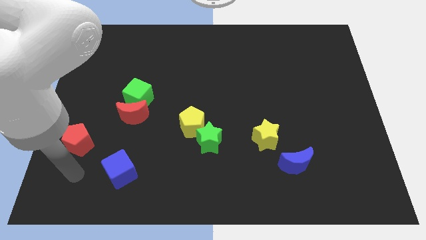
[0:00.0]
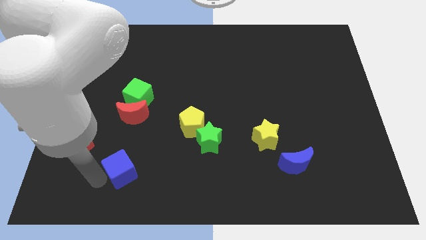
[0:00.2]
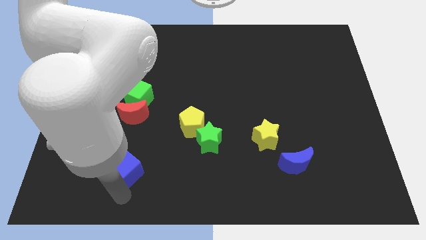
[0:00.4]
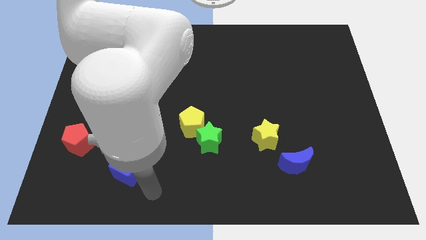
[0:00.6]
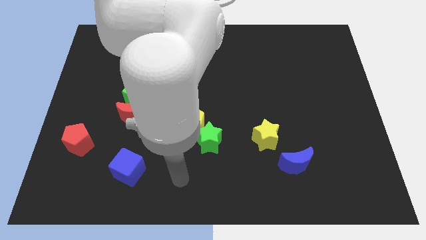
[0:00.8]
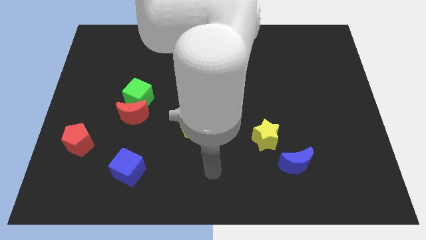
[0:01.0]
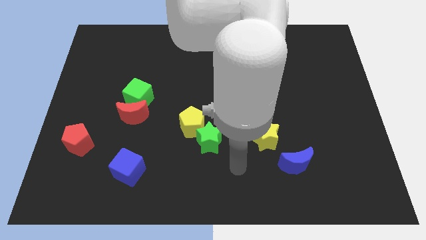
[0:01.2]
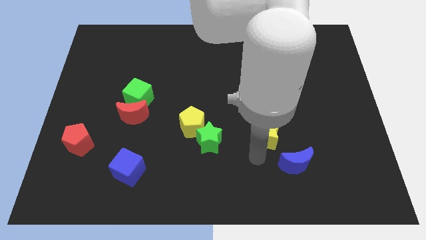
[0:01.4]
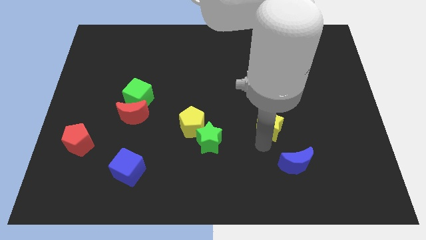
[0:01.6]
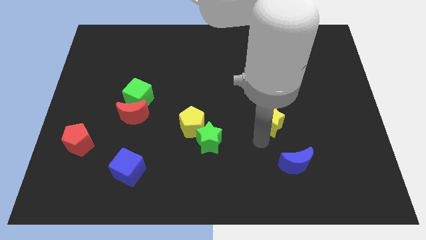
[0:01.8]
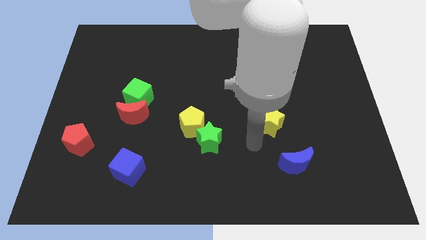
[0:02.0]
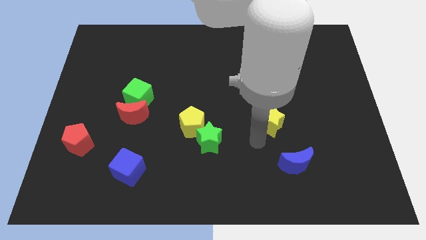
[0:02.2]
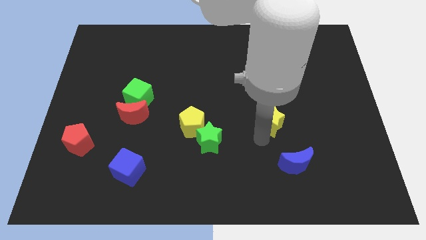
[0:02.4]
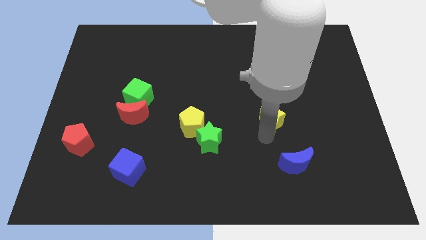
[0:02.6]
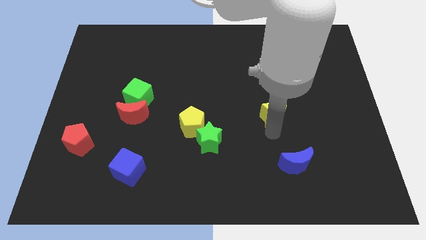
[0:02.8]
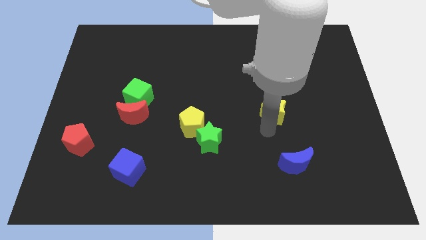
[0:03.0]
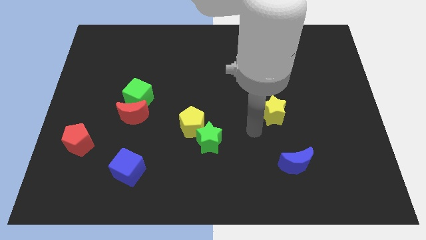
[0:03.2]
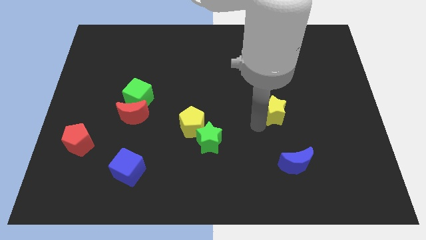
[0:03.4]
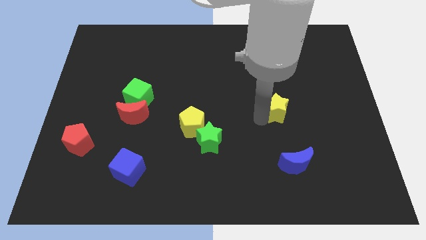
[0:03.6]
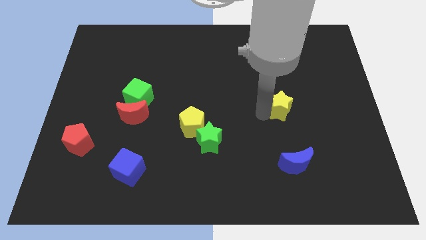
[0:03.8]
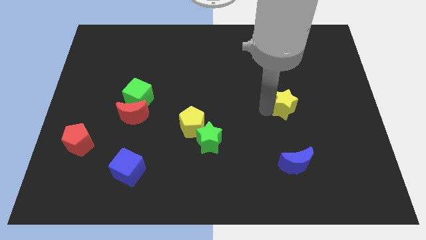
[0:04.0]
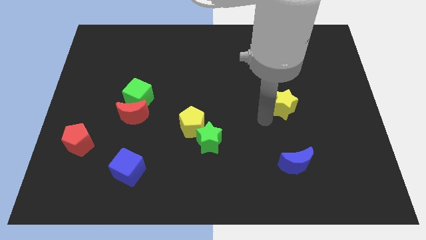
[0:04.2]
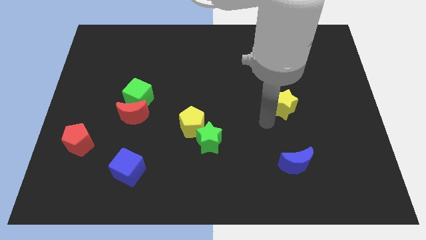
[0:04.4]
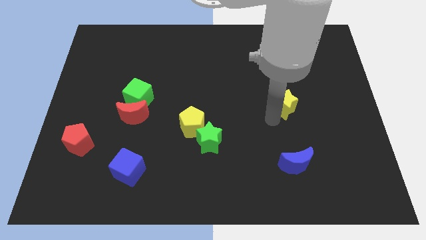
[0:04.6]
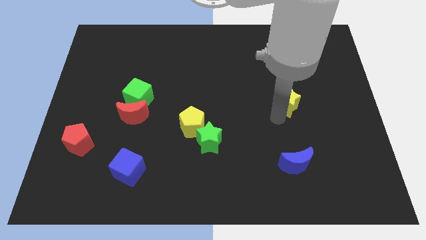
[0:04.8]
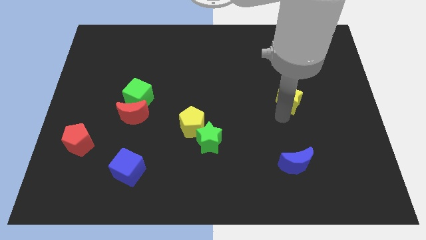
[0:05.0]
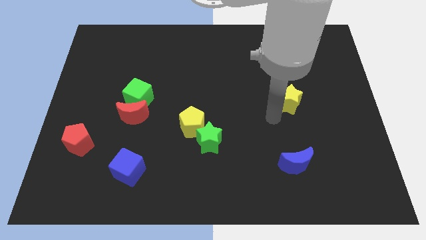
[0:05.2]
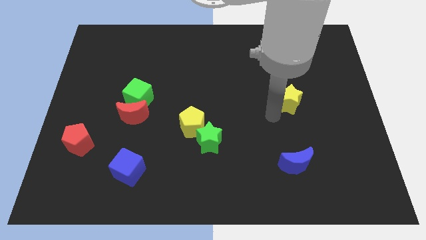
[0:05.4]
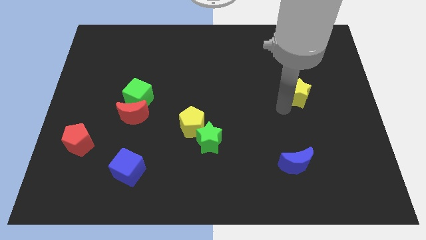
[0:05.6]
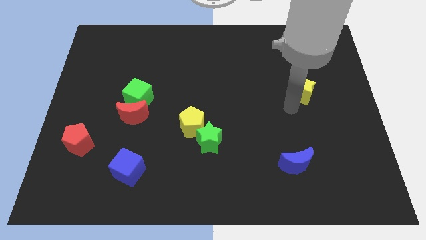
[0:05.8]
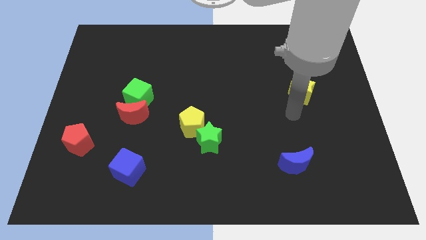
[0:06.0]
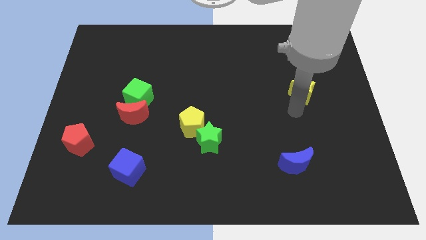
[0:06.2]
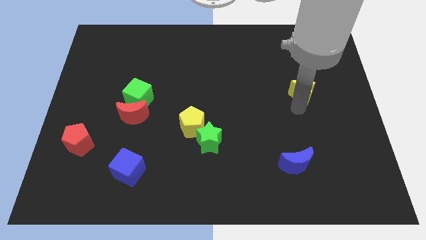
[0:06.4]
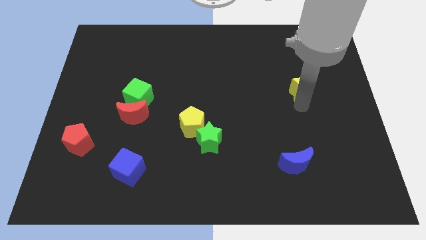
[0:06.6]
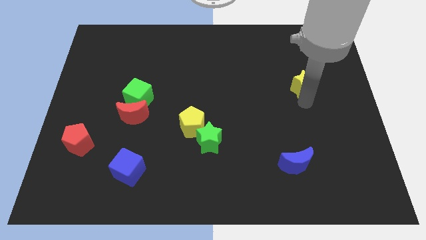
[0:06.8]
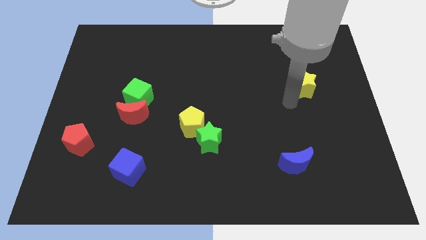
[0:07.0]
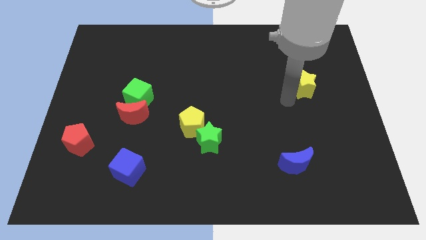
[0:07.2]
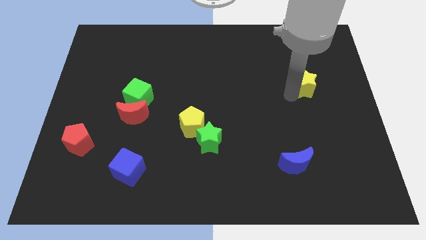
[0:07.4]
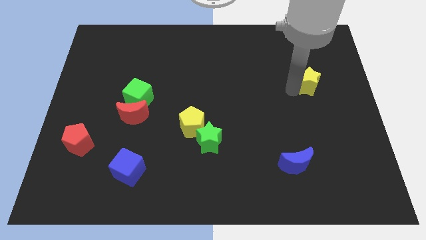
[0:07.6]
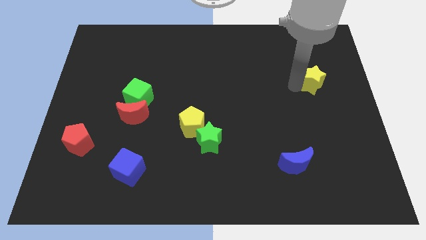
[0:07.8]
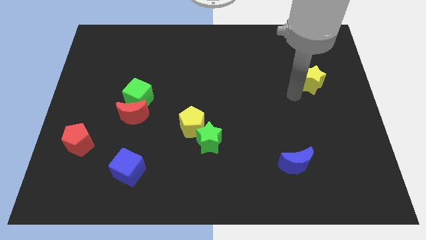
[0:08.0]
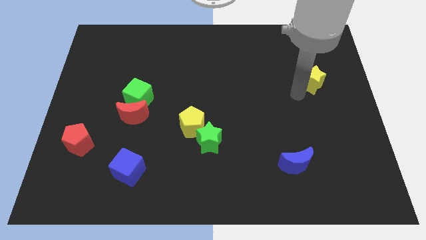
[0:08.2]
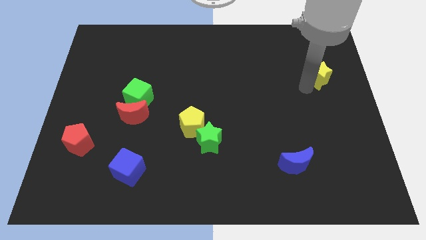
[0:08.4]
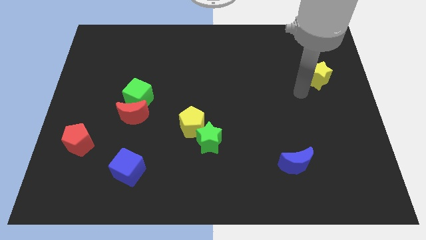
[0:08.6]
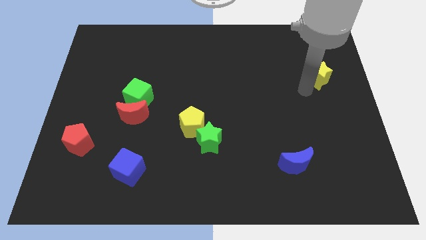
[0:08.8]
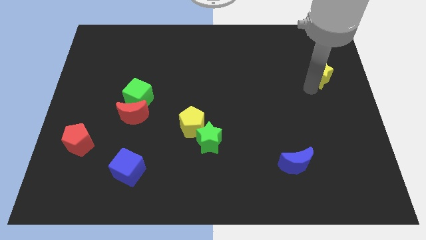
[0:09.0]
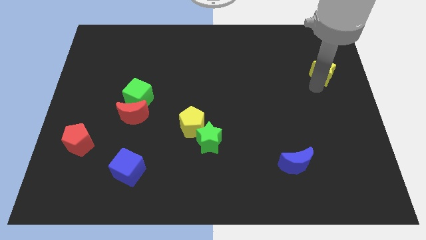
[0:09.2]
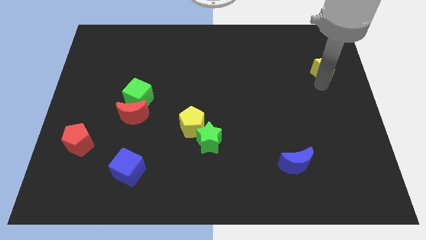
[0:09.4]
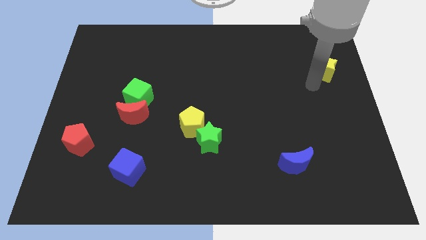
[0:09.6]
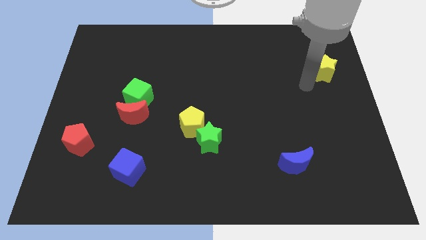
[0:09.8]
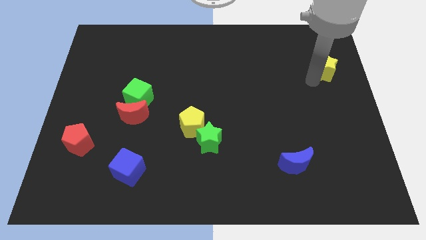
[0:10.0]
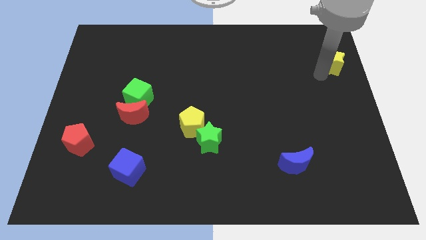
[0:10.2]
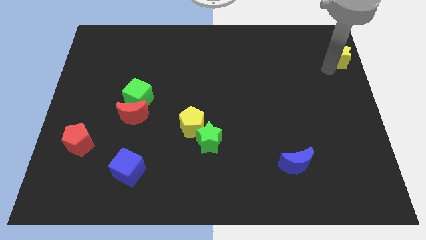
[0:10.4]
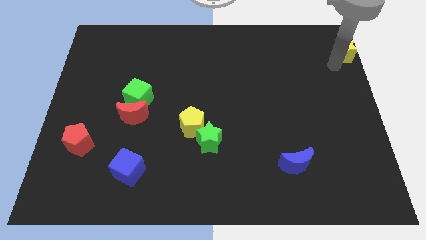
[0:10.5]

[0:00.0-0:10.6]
move the yellow star to the top right corner

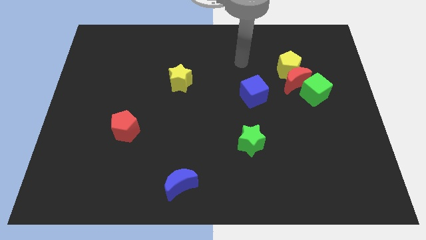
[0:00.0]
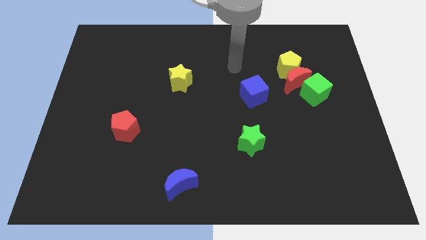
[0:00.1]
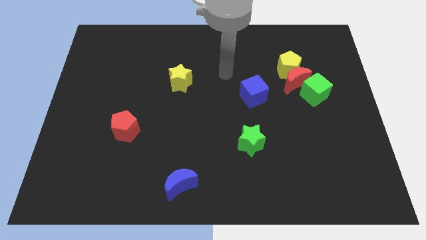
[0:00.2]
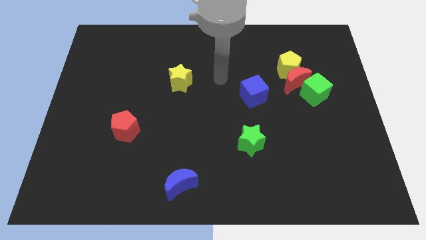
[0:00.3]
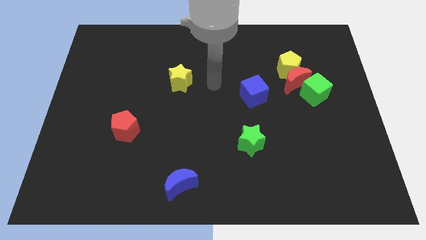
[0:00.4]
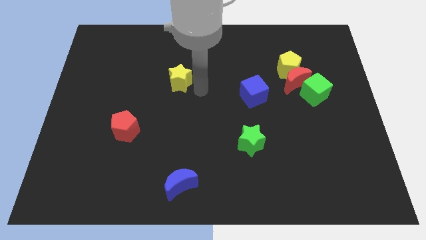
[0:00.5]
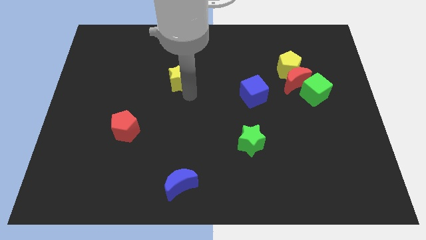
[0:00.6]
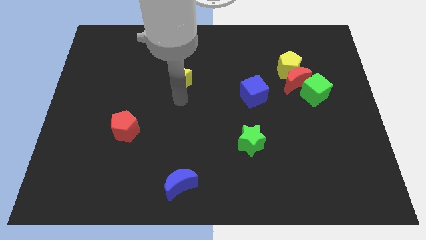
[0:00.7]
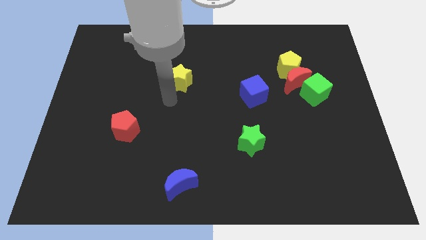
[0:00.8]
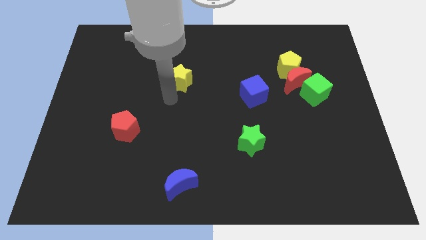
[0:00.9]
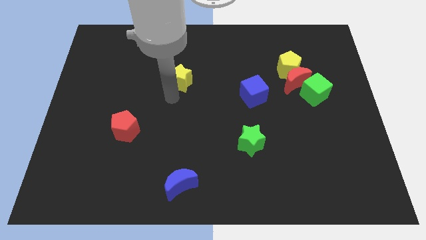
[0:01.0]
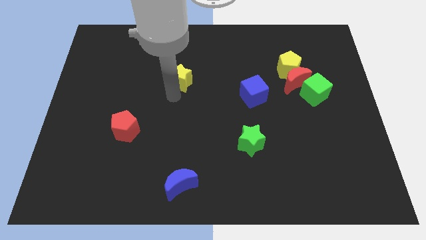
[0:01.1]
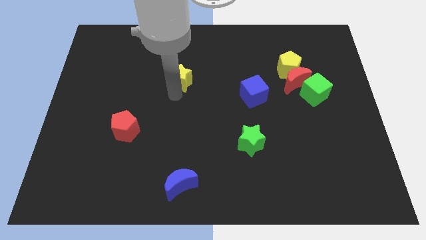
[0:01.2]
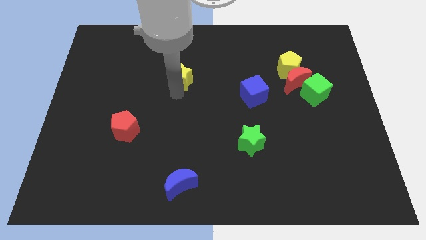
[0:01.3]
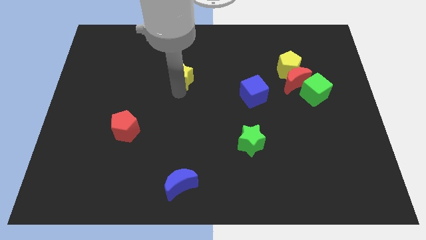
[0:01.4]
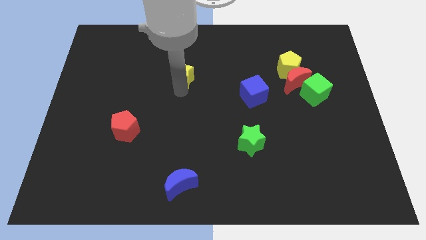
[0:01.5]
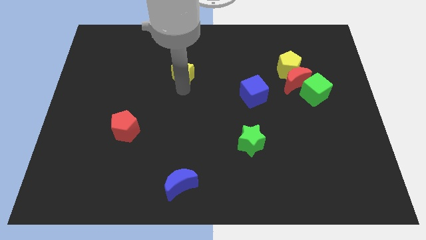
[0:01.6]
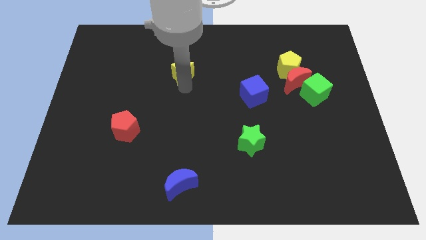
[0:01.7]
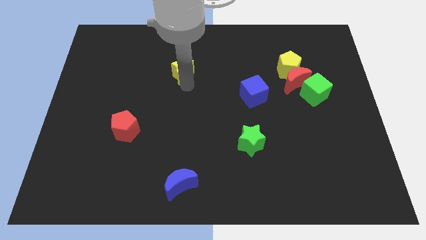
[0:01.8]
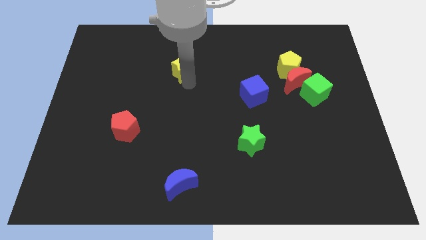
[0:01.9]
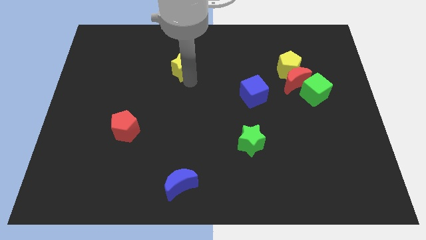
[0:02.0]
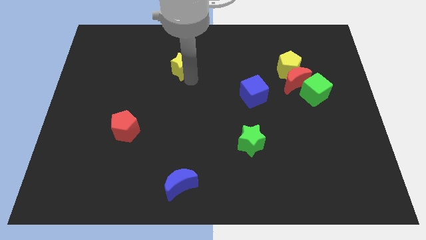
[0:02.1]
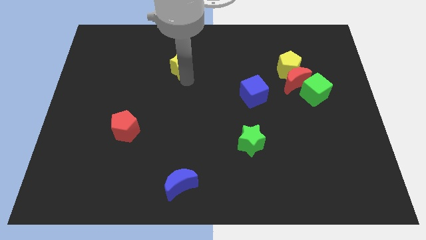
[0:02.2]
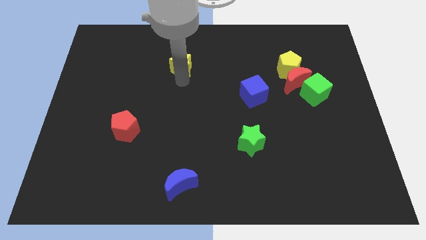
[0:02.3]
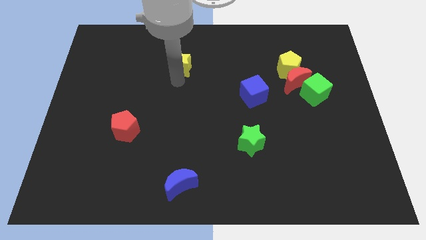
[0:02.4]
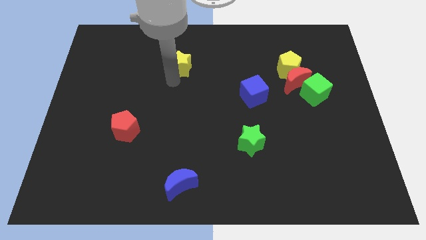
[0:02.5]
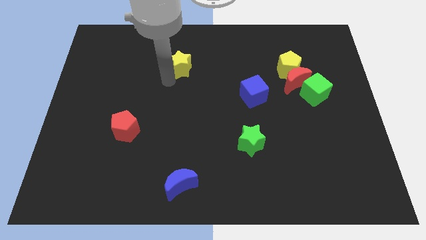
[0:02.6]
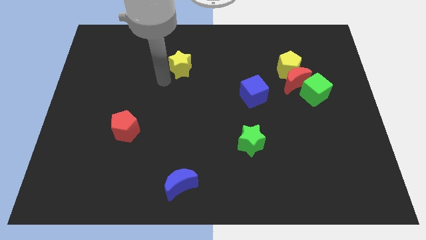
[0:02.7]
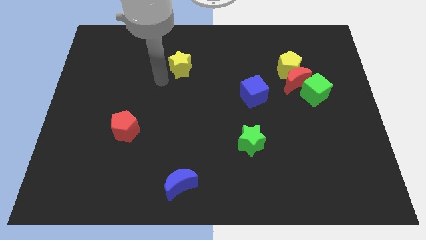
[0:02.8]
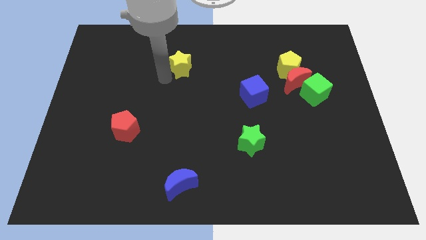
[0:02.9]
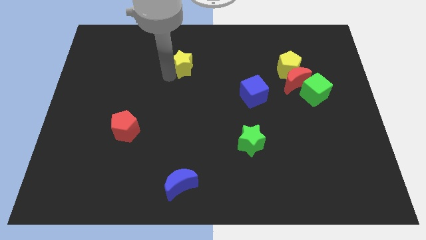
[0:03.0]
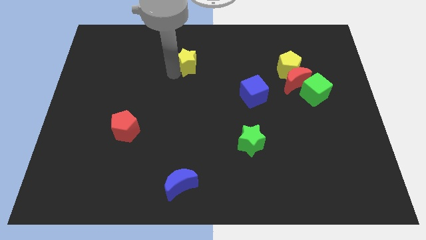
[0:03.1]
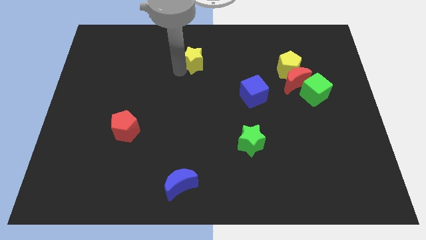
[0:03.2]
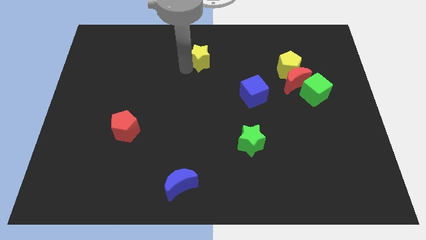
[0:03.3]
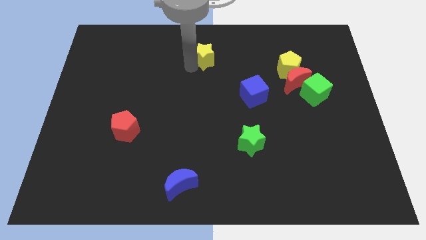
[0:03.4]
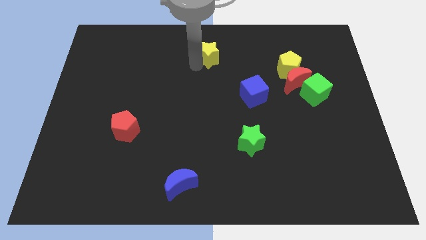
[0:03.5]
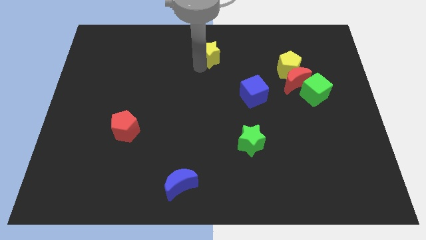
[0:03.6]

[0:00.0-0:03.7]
move the yellow star to the towards your base
